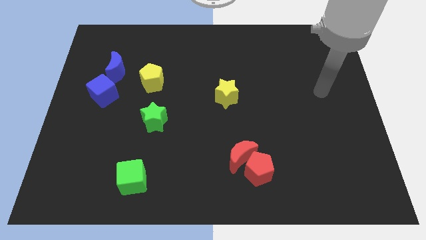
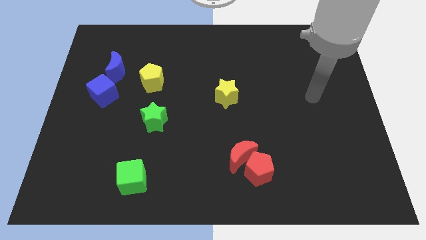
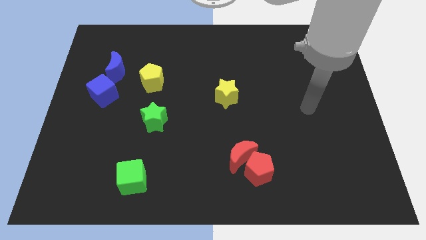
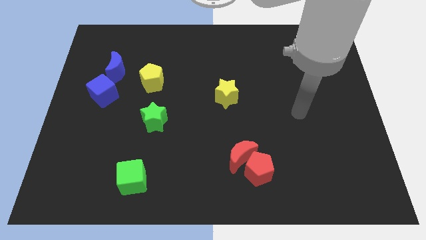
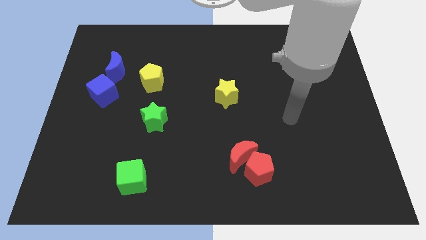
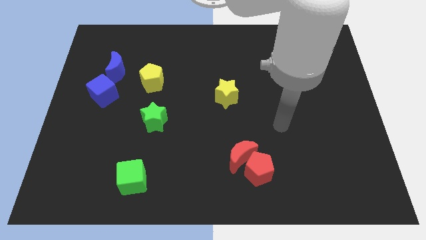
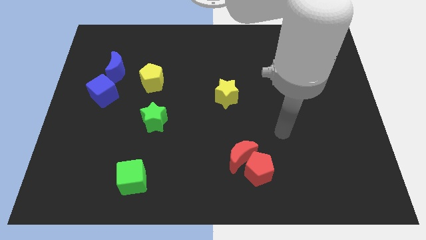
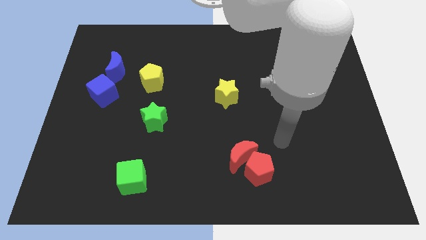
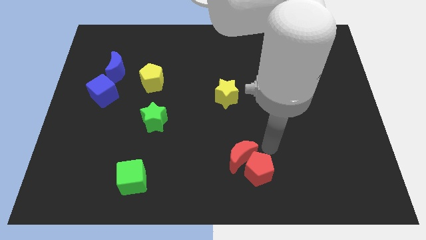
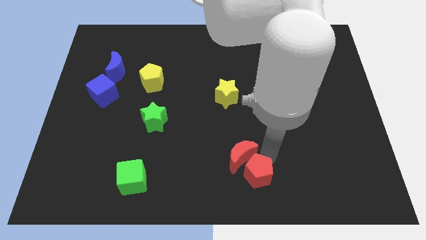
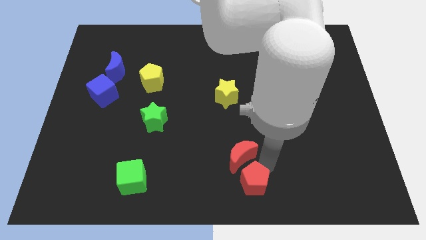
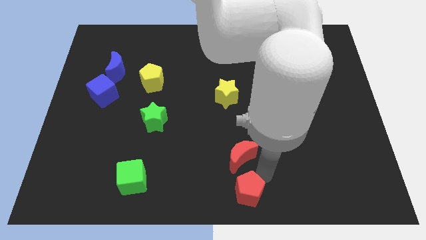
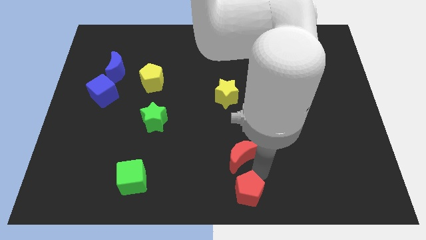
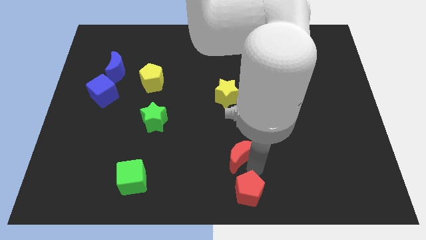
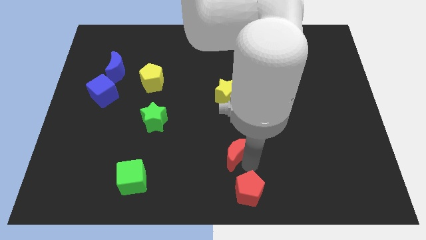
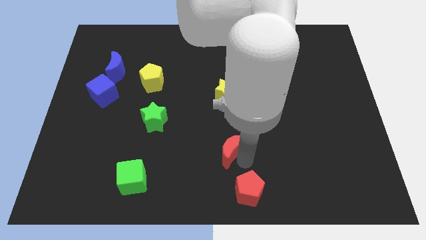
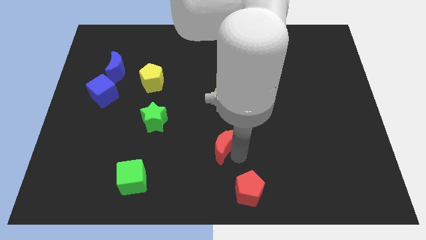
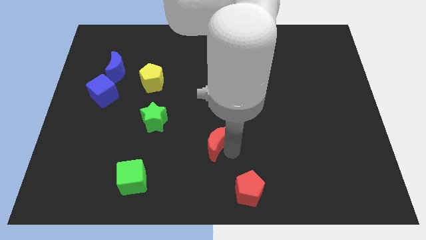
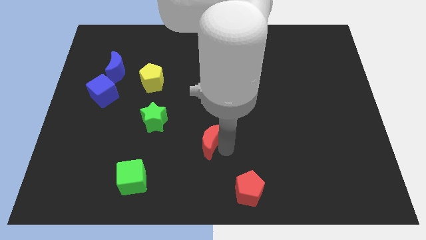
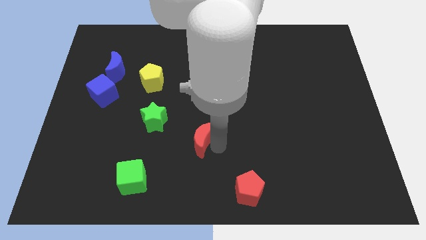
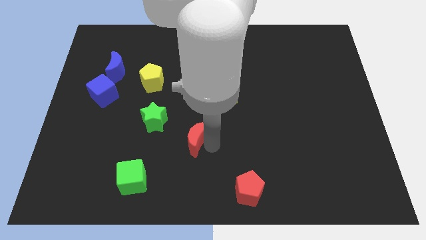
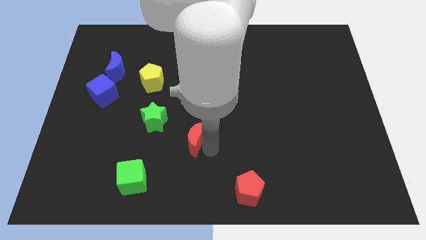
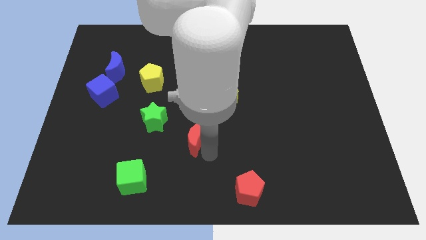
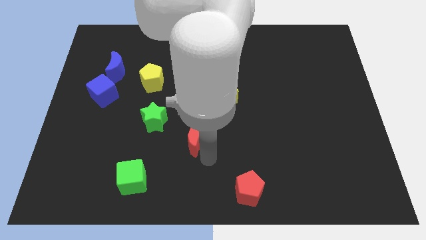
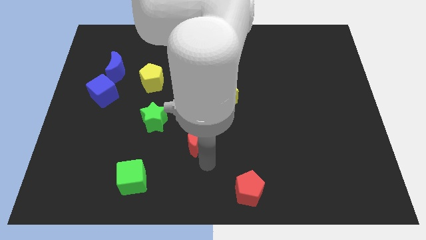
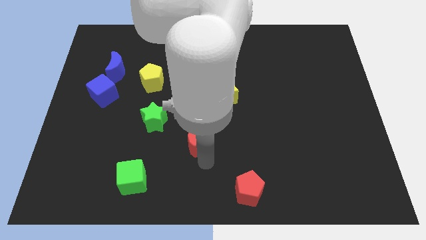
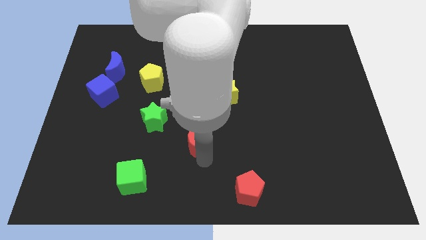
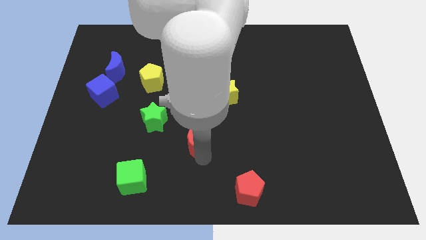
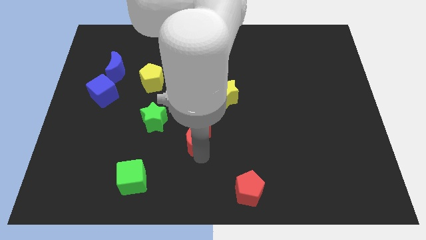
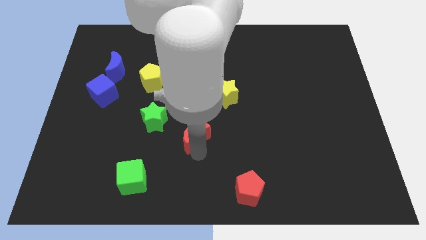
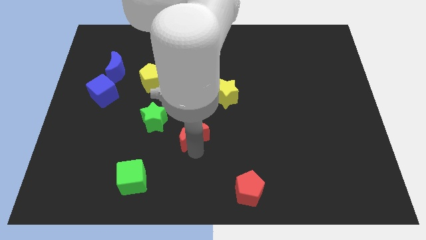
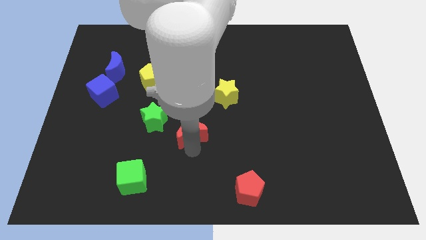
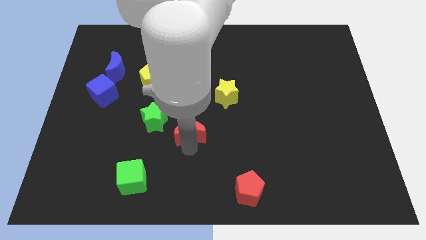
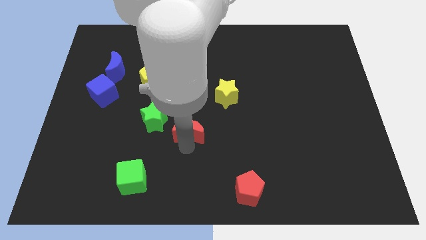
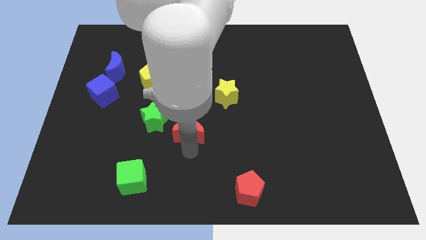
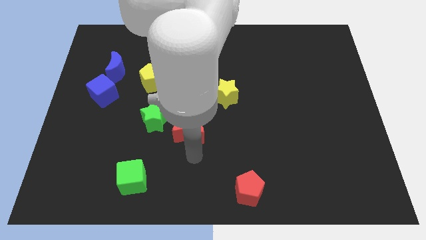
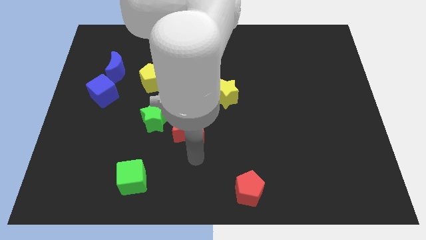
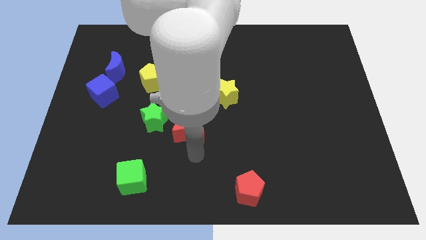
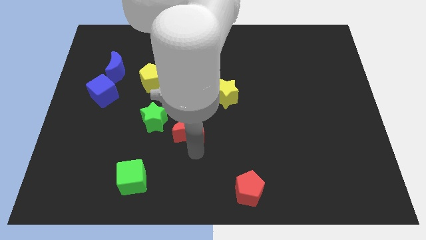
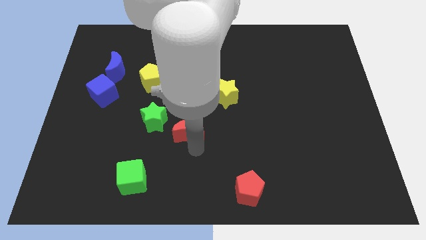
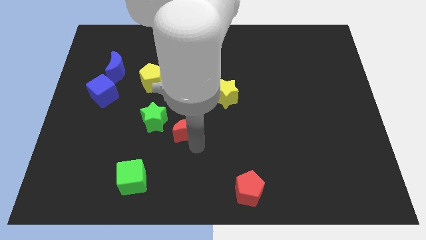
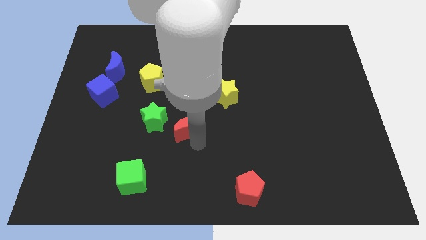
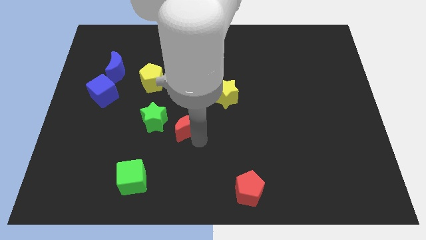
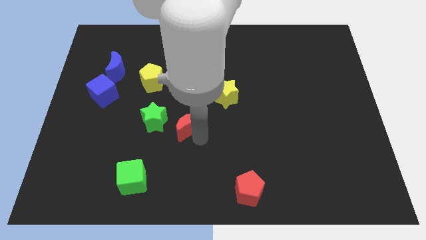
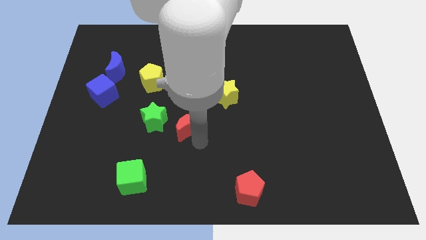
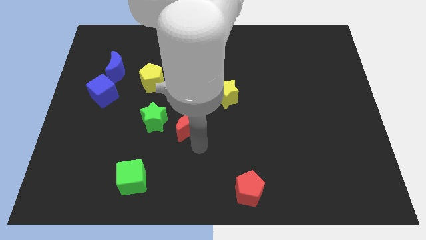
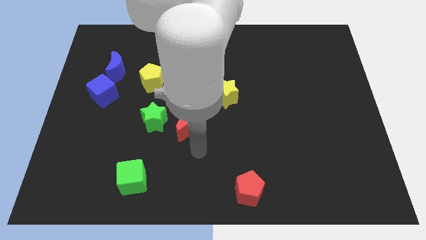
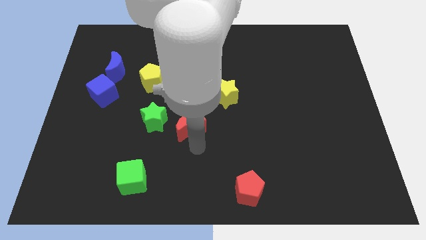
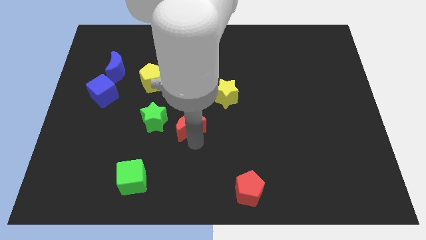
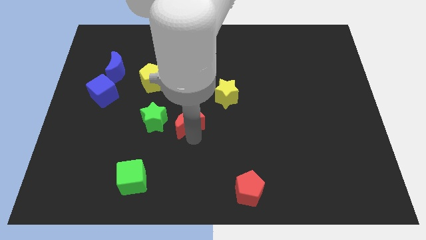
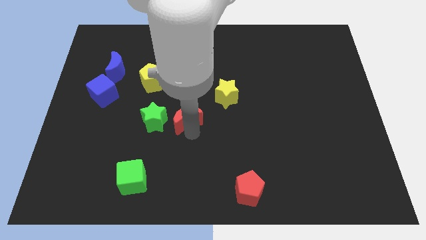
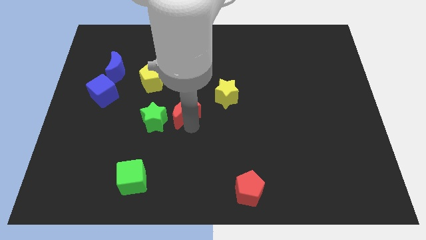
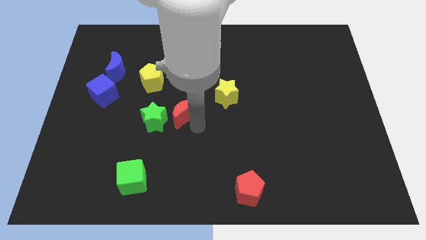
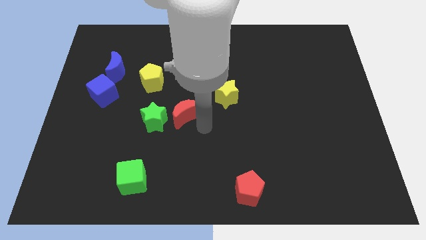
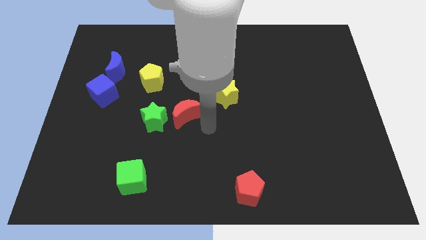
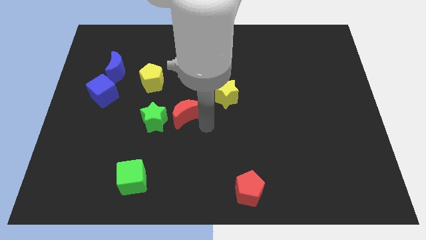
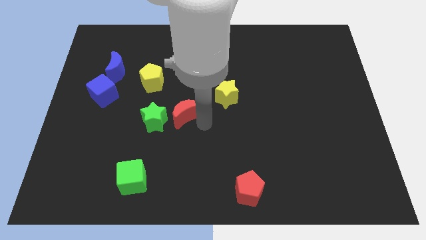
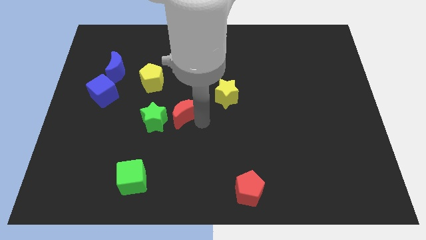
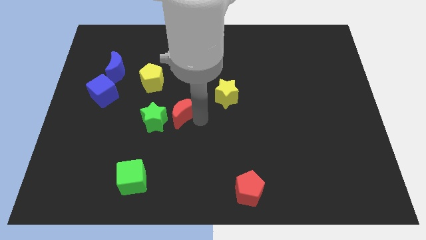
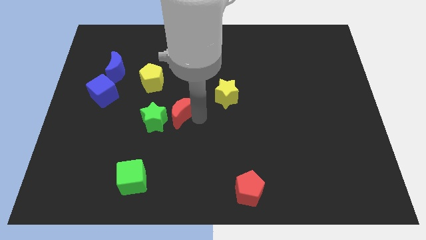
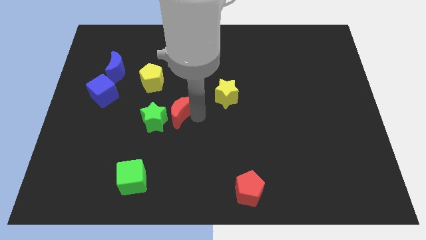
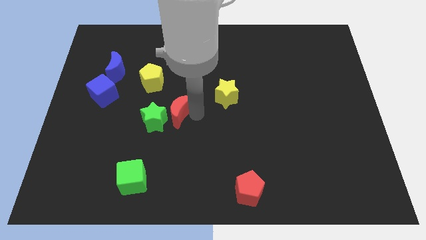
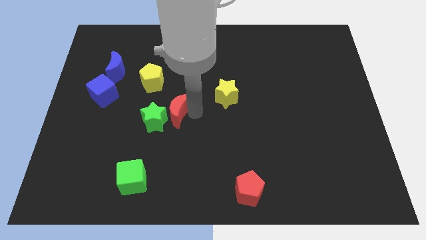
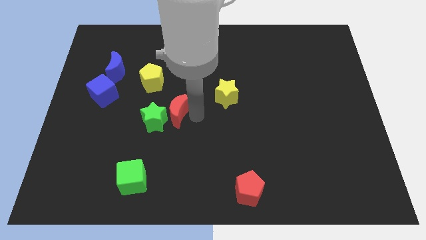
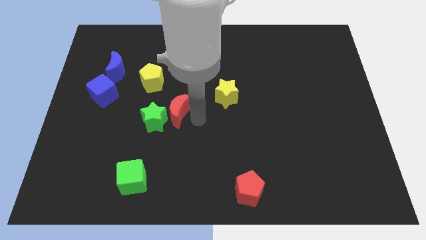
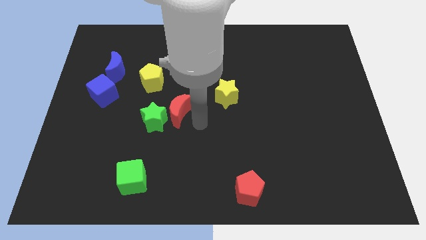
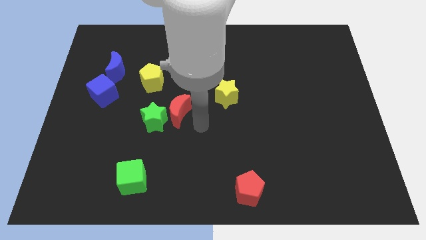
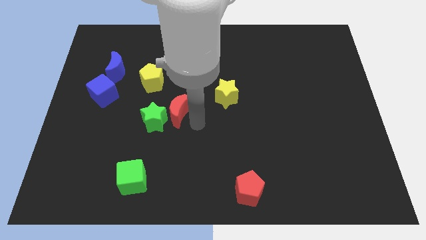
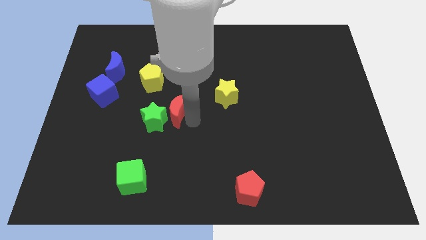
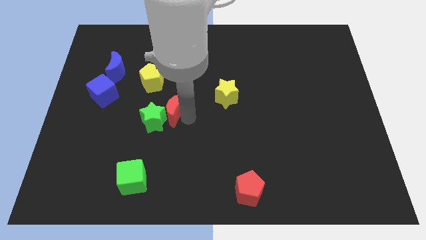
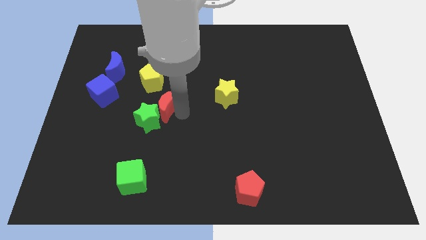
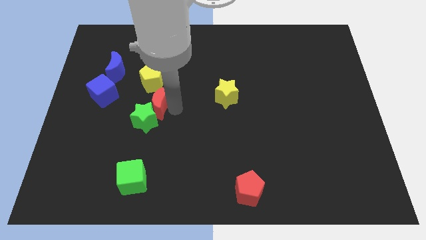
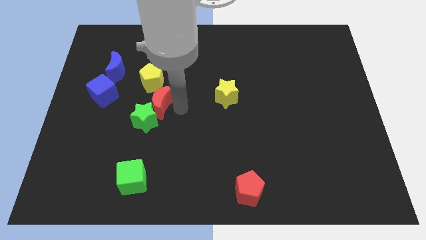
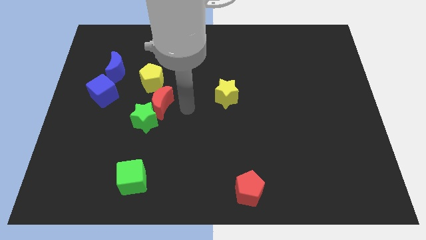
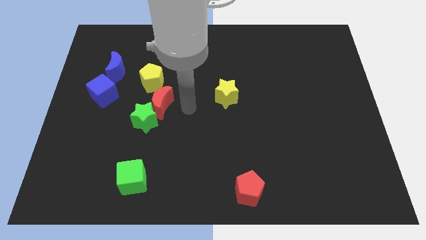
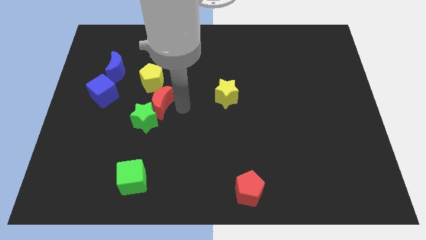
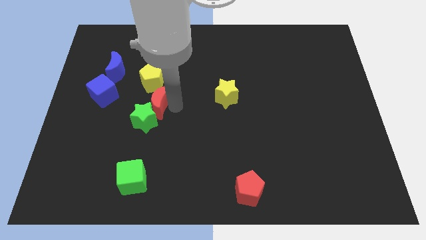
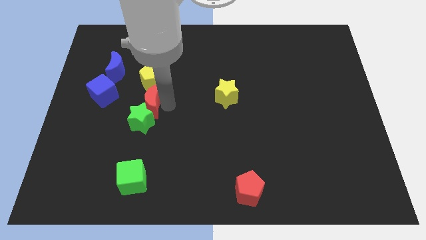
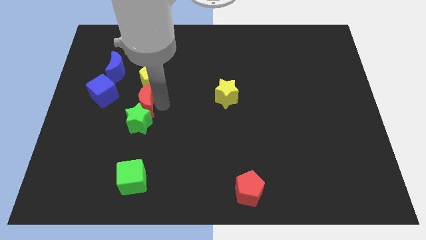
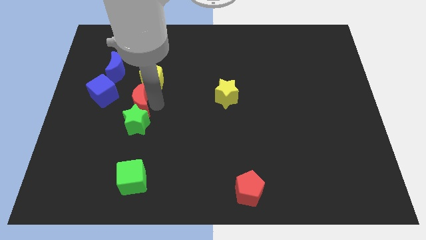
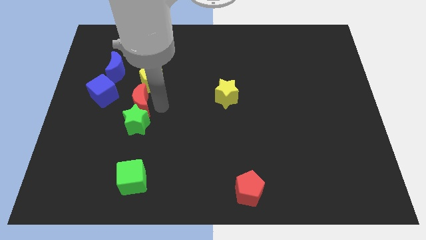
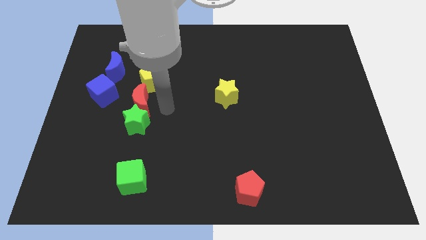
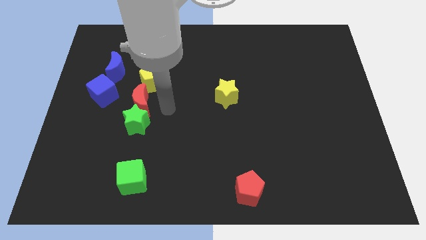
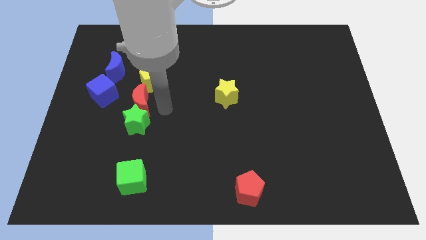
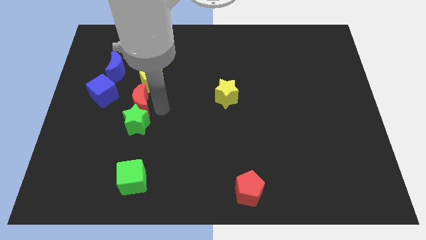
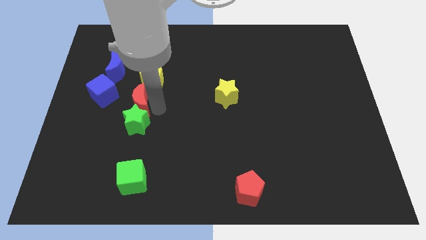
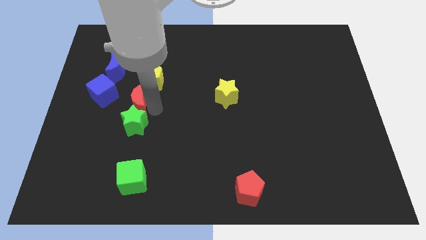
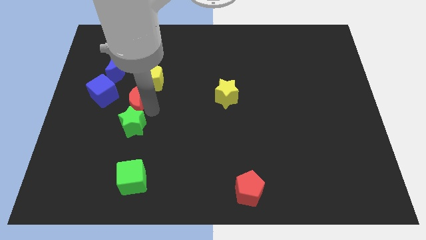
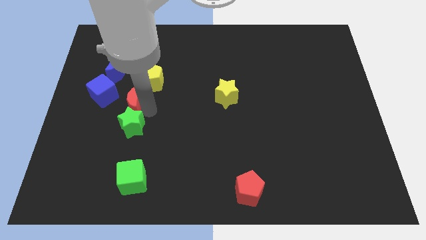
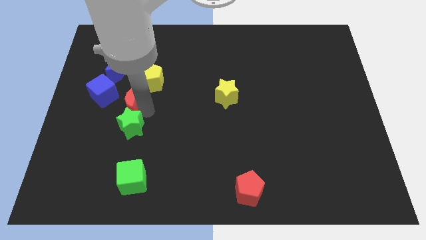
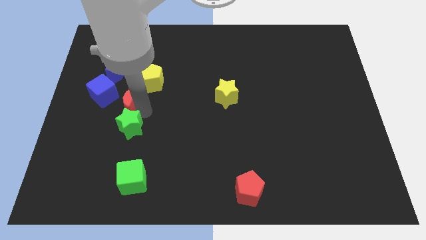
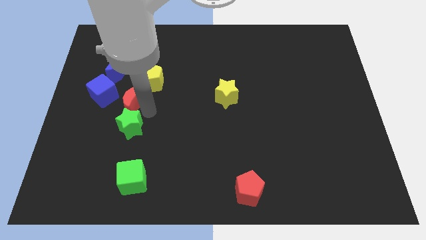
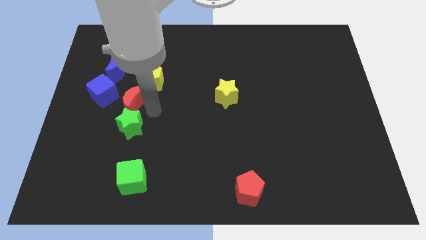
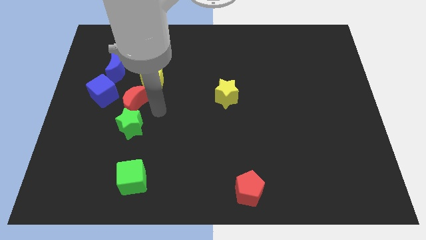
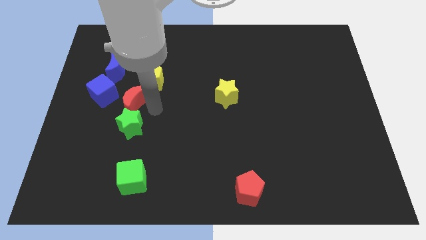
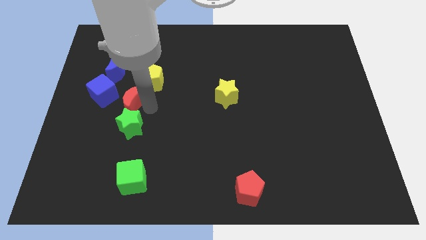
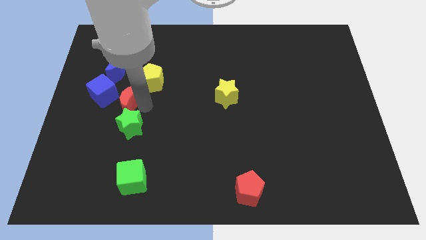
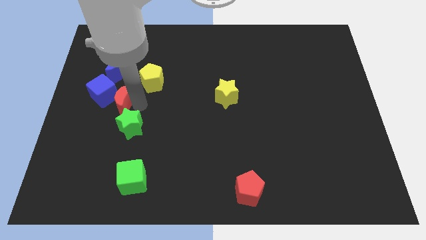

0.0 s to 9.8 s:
slide the red moon next to the blue cube
